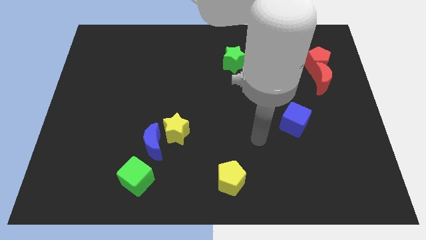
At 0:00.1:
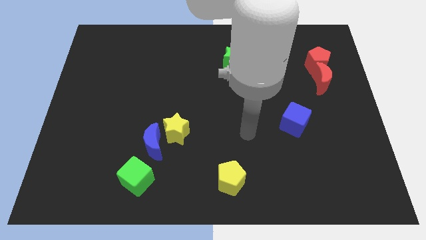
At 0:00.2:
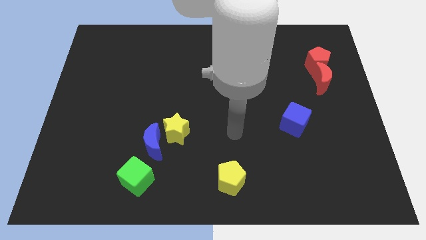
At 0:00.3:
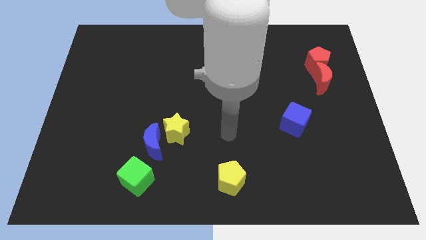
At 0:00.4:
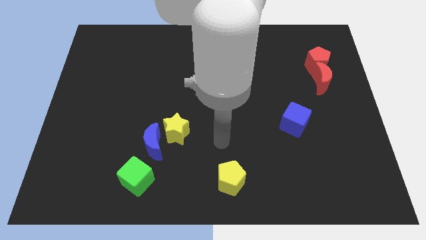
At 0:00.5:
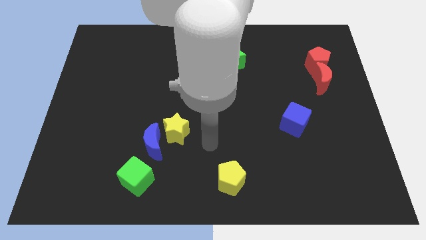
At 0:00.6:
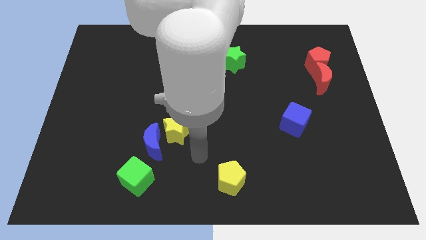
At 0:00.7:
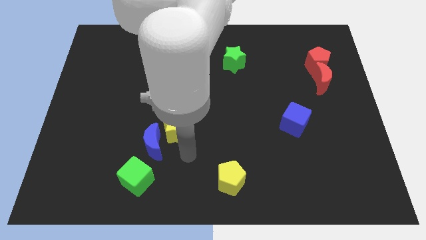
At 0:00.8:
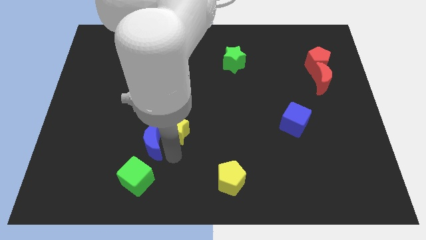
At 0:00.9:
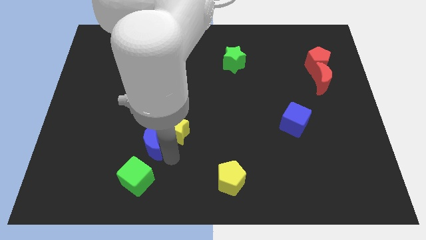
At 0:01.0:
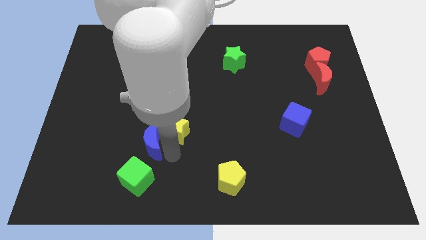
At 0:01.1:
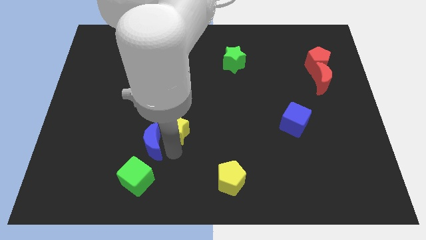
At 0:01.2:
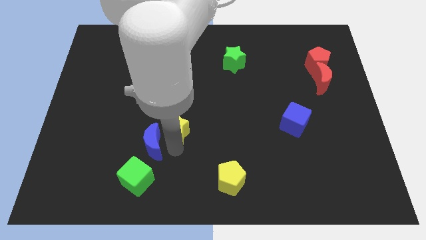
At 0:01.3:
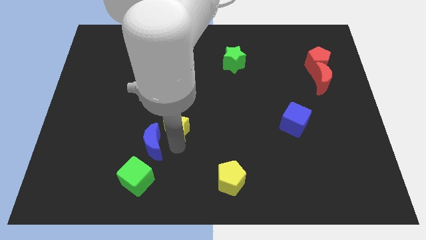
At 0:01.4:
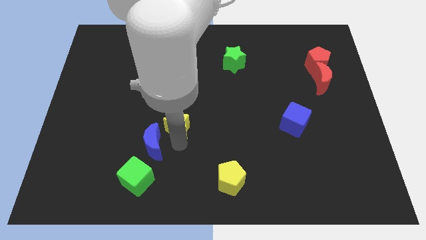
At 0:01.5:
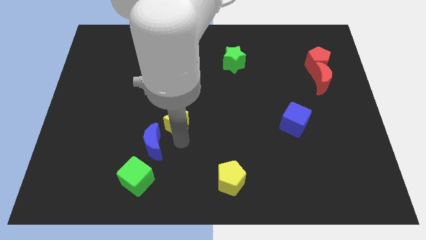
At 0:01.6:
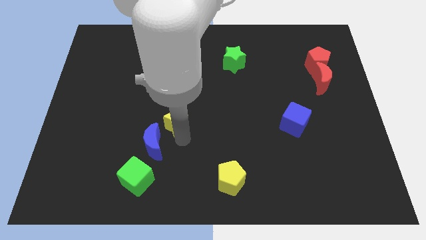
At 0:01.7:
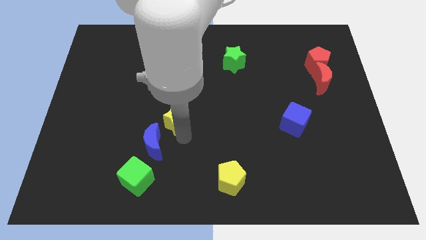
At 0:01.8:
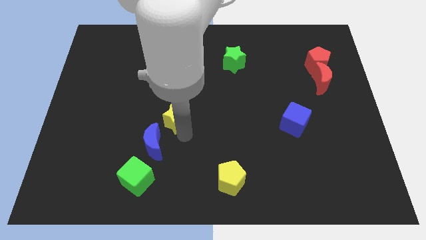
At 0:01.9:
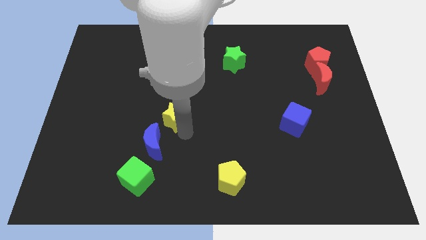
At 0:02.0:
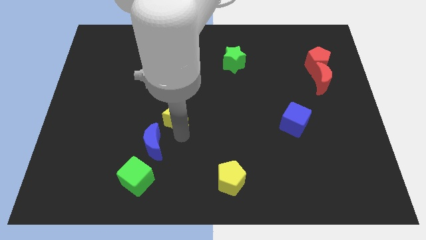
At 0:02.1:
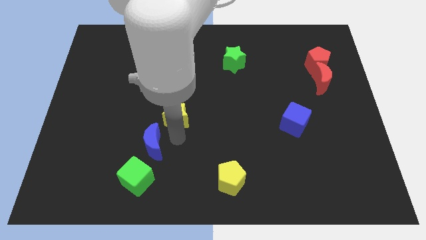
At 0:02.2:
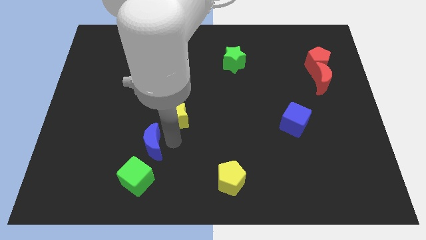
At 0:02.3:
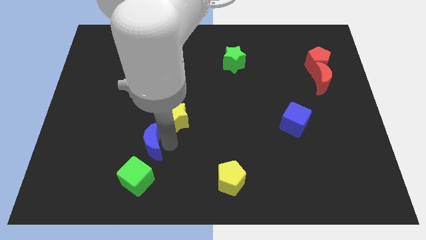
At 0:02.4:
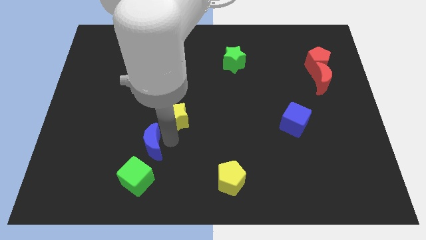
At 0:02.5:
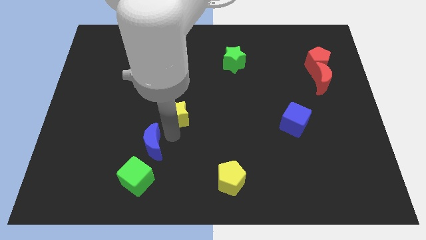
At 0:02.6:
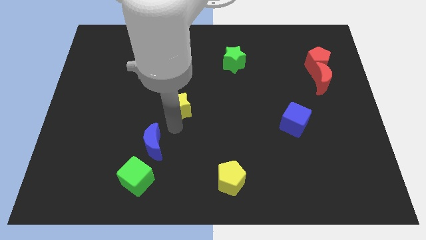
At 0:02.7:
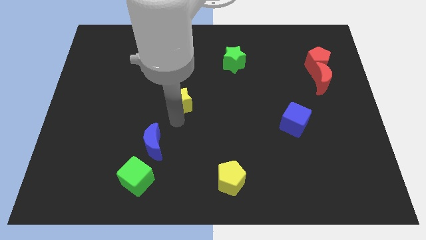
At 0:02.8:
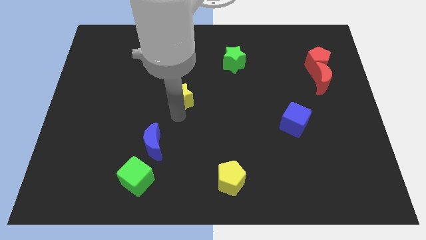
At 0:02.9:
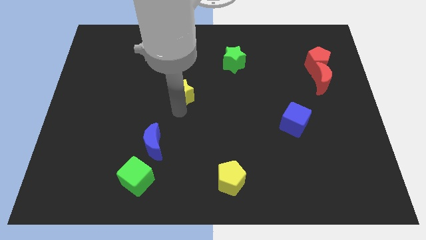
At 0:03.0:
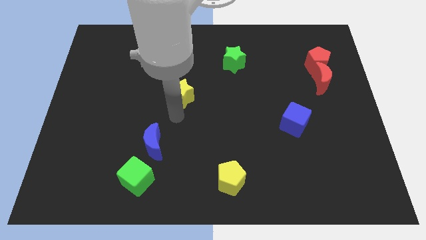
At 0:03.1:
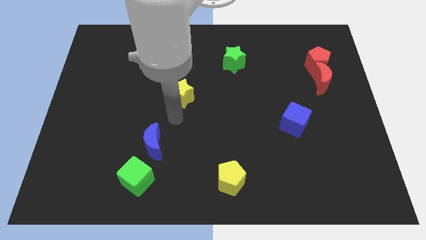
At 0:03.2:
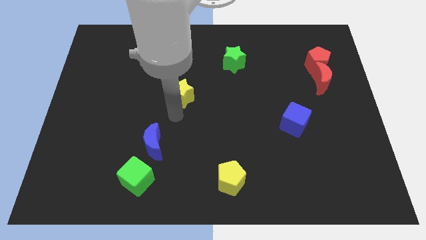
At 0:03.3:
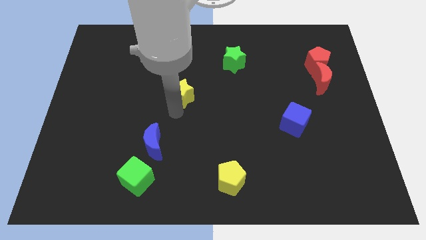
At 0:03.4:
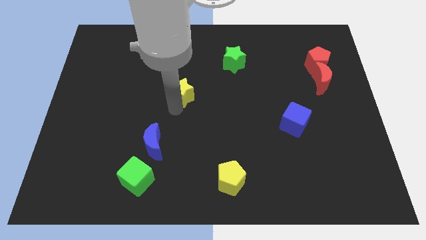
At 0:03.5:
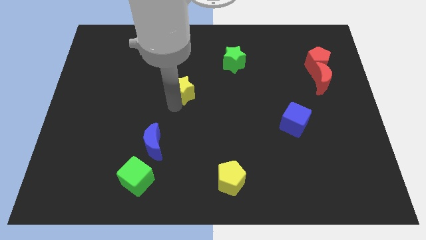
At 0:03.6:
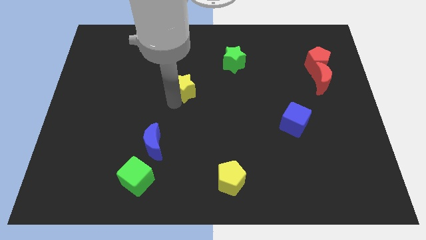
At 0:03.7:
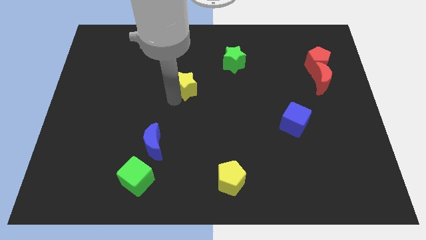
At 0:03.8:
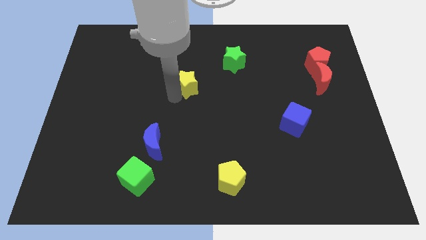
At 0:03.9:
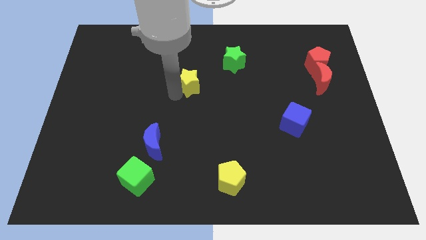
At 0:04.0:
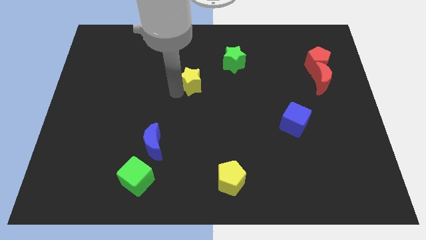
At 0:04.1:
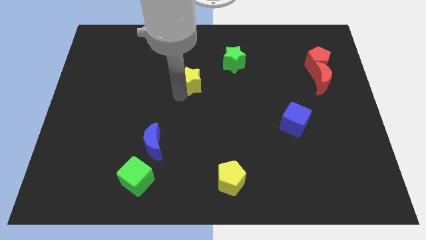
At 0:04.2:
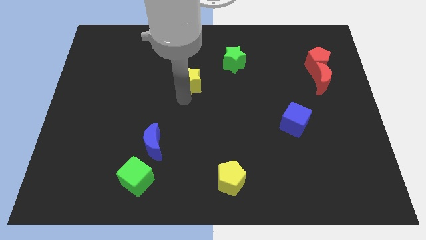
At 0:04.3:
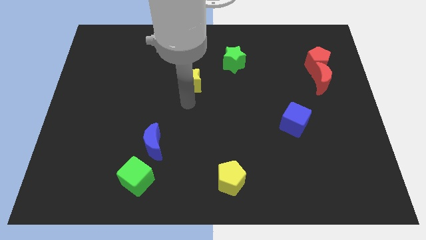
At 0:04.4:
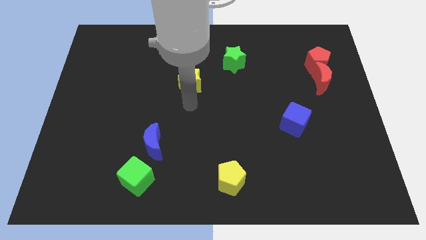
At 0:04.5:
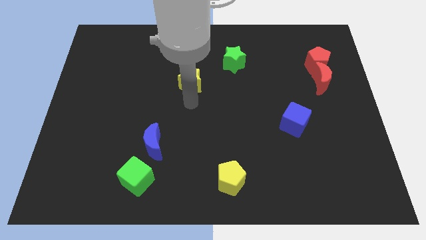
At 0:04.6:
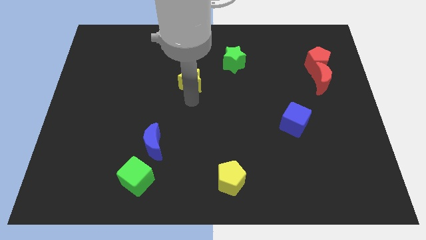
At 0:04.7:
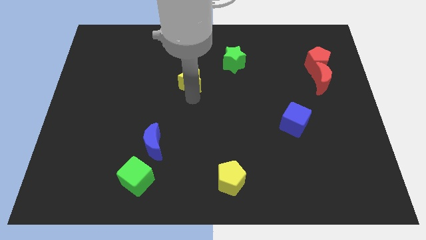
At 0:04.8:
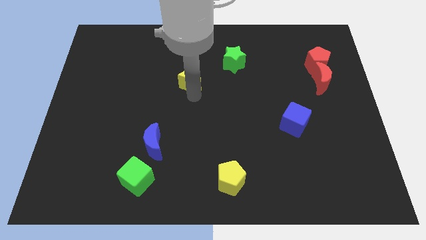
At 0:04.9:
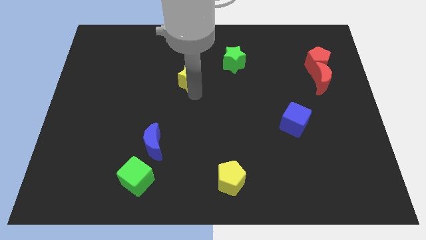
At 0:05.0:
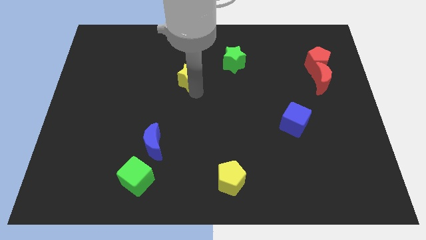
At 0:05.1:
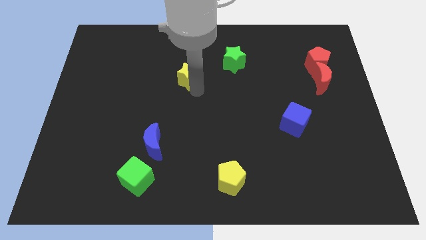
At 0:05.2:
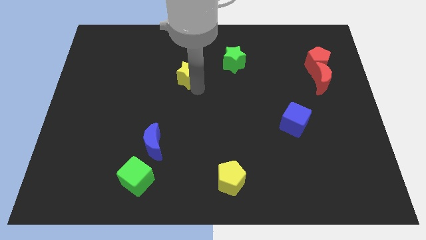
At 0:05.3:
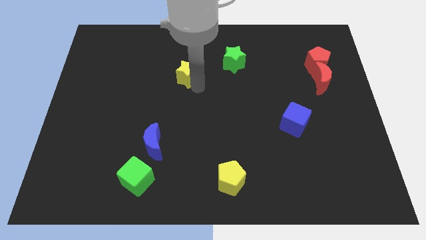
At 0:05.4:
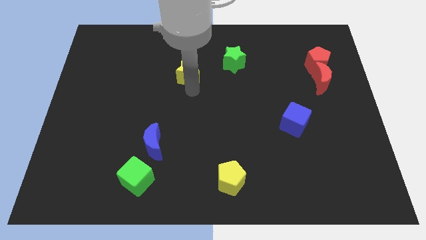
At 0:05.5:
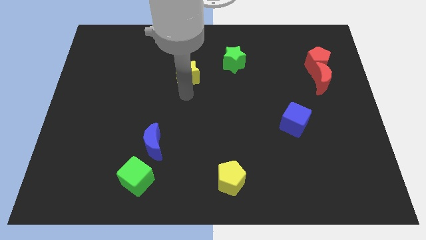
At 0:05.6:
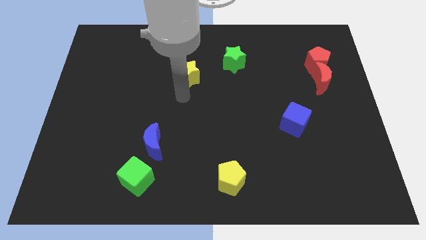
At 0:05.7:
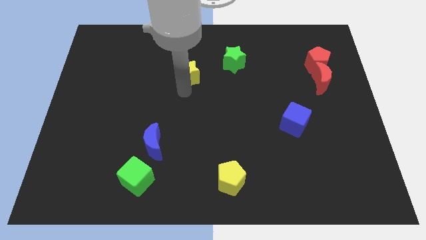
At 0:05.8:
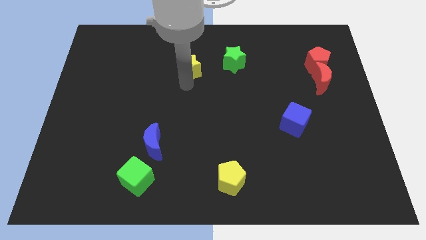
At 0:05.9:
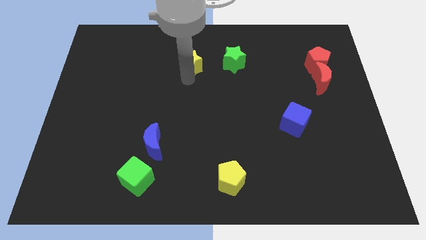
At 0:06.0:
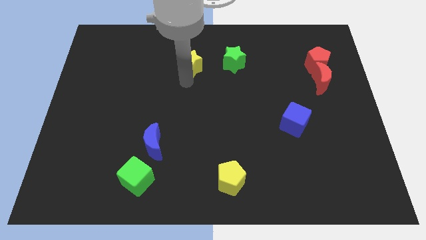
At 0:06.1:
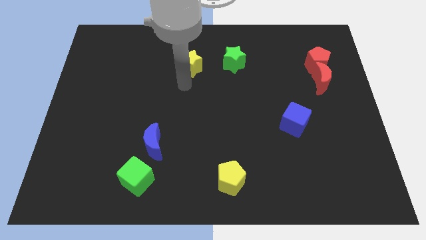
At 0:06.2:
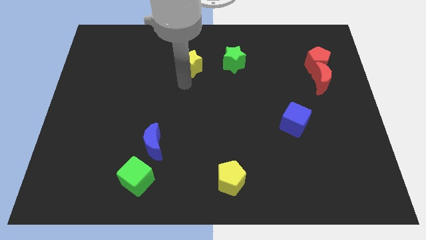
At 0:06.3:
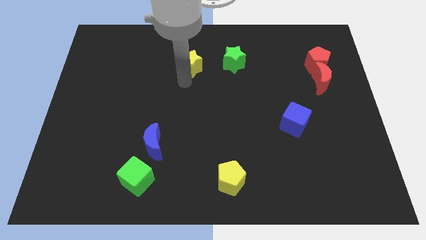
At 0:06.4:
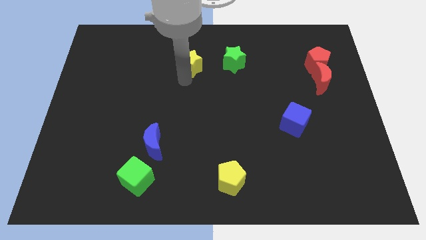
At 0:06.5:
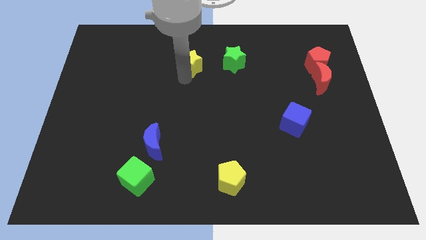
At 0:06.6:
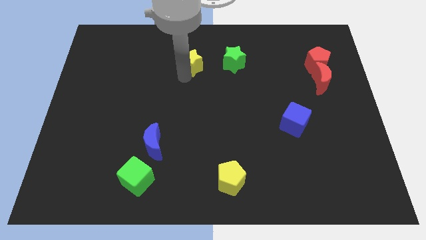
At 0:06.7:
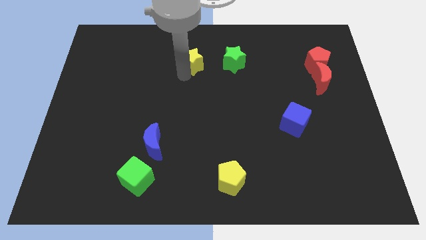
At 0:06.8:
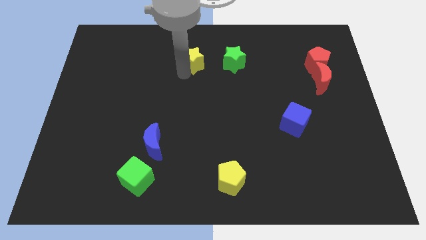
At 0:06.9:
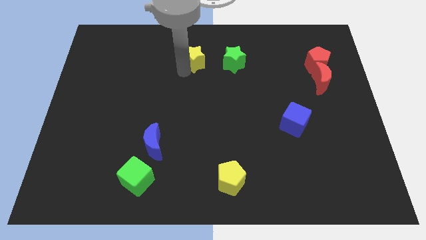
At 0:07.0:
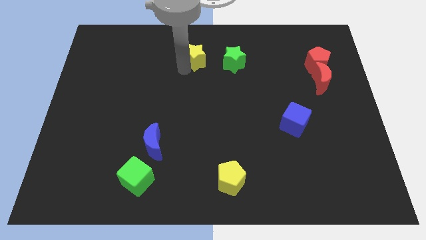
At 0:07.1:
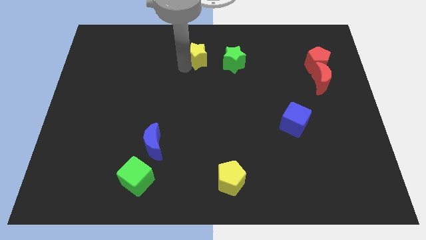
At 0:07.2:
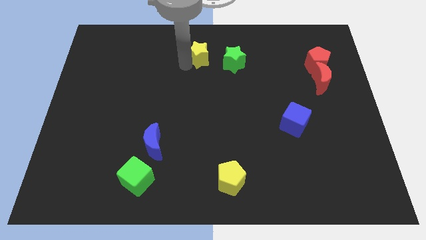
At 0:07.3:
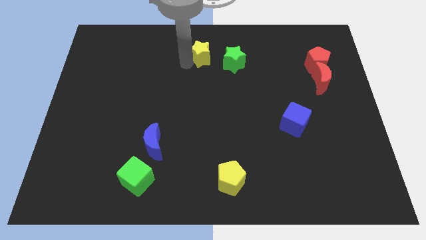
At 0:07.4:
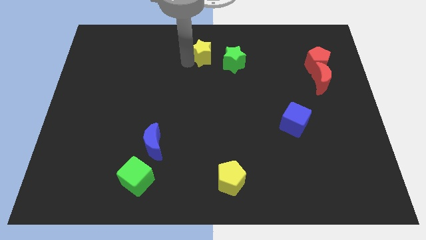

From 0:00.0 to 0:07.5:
move the yellow star to the top
